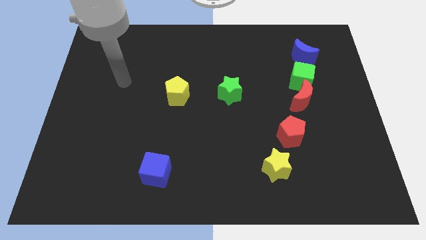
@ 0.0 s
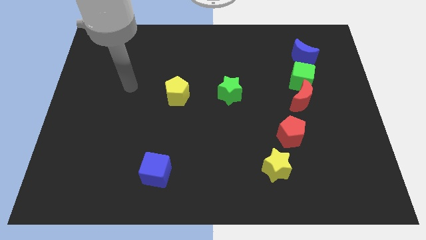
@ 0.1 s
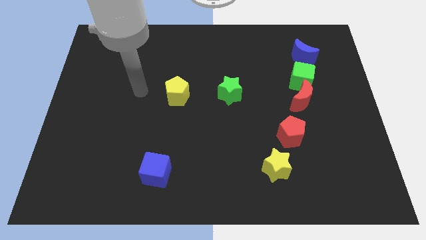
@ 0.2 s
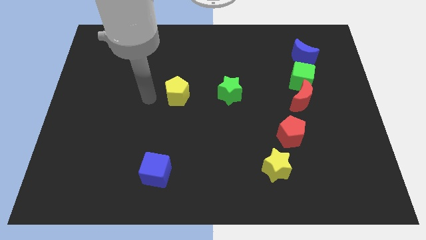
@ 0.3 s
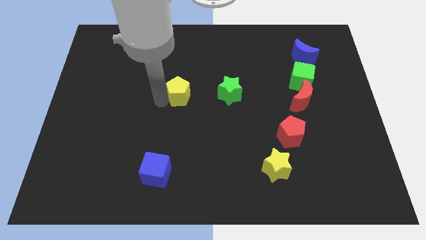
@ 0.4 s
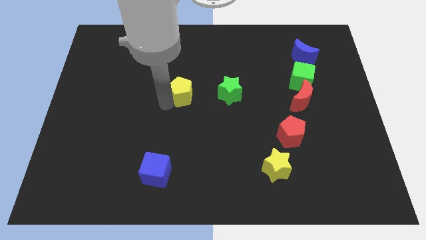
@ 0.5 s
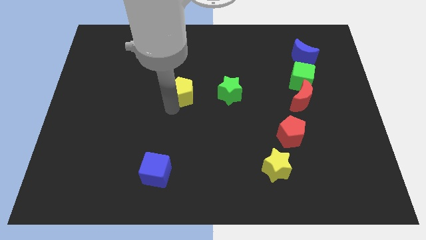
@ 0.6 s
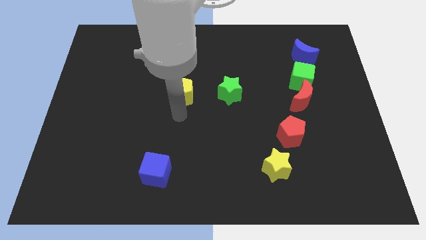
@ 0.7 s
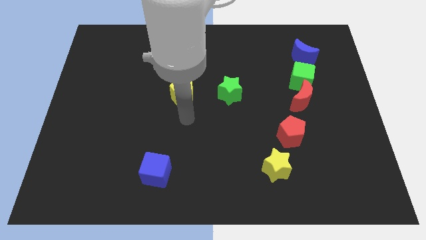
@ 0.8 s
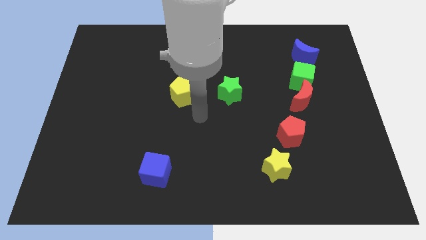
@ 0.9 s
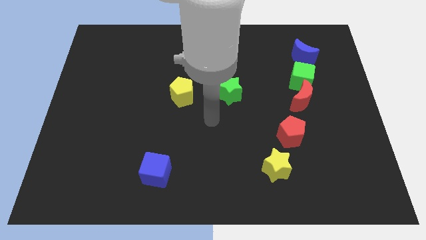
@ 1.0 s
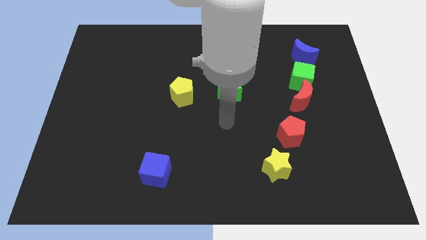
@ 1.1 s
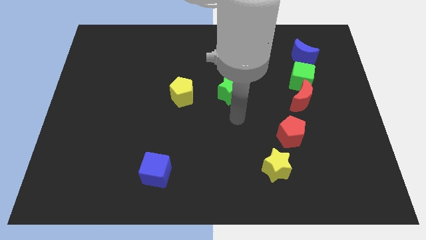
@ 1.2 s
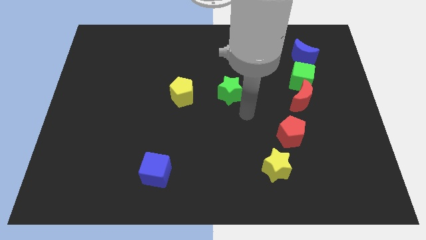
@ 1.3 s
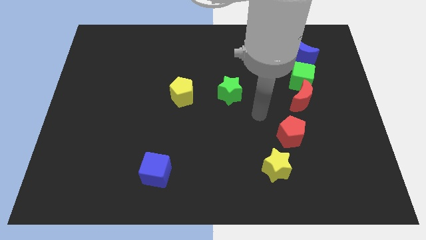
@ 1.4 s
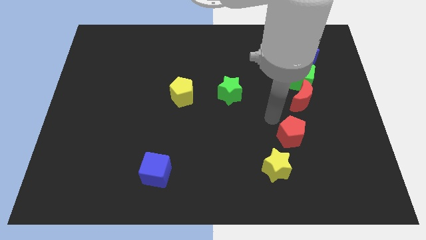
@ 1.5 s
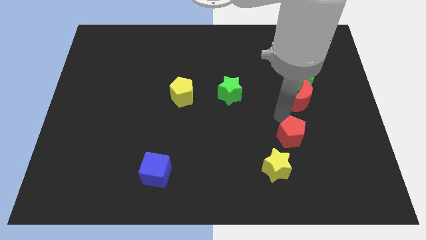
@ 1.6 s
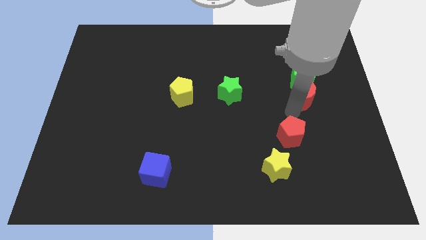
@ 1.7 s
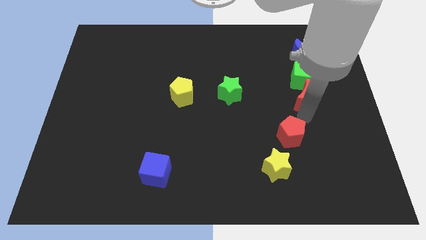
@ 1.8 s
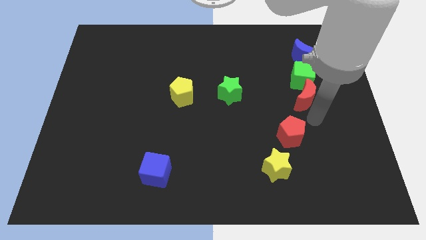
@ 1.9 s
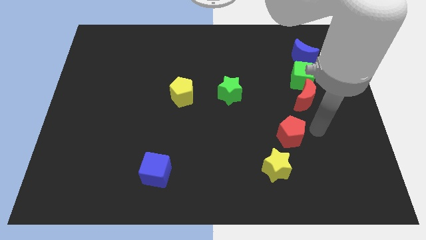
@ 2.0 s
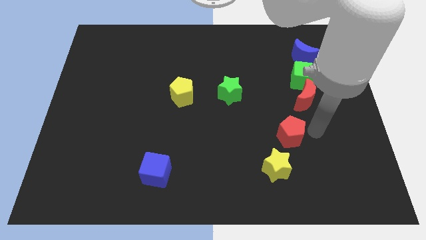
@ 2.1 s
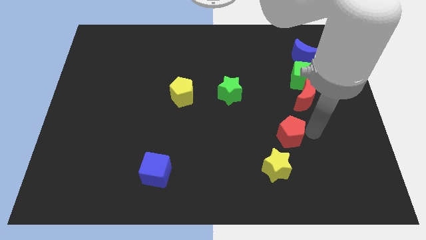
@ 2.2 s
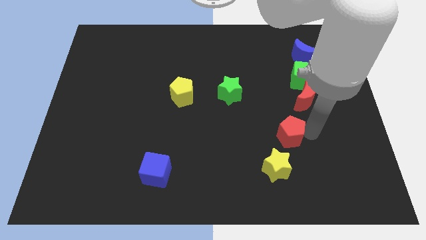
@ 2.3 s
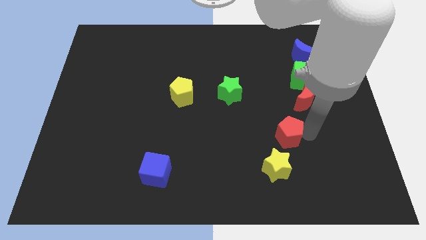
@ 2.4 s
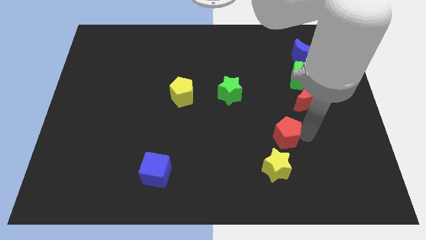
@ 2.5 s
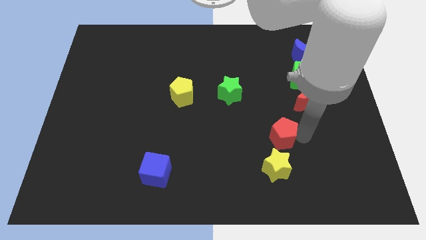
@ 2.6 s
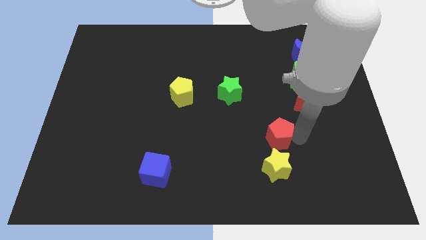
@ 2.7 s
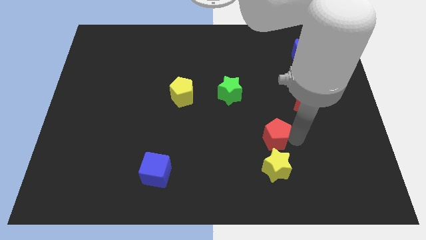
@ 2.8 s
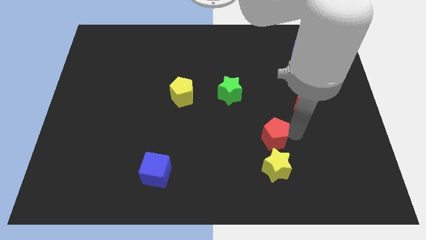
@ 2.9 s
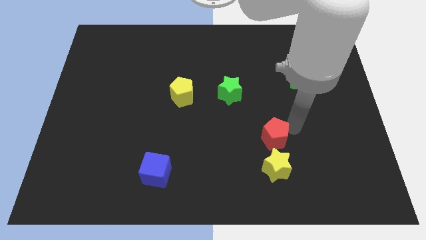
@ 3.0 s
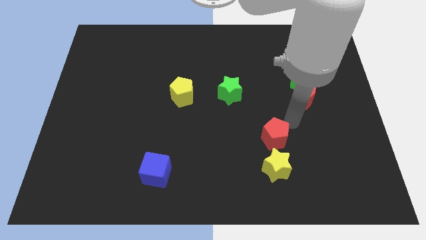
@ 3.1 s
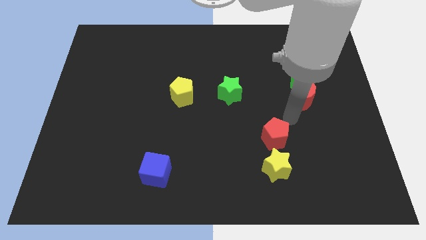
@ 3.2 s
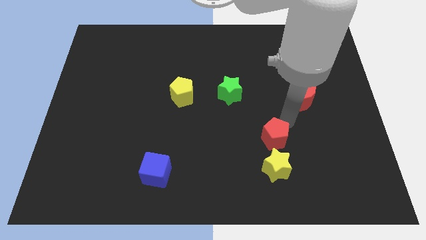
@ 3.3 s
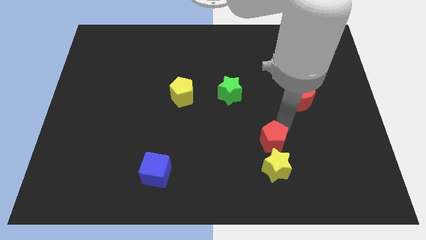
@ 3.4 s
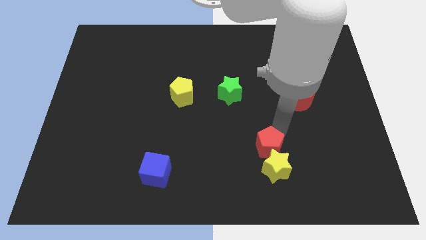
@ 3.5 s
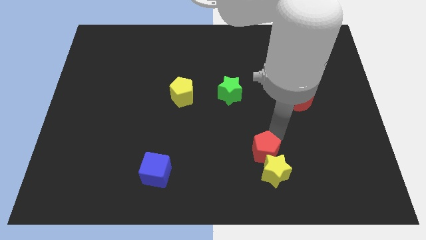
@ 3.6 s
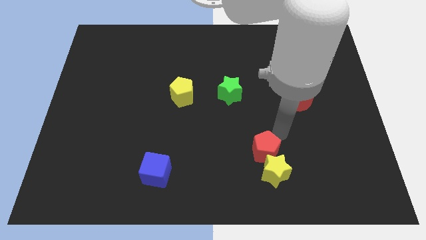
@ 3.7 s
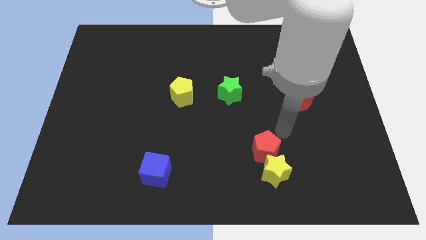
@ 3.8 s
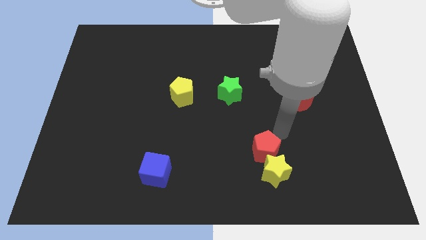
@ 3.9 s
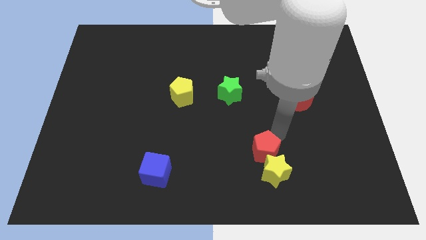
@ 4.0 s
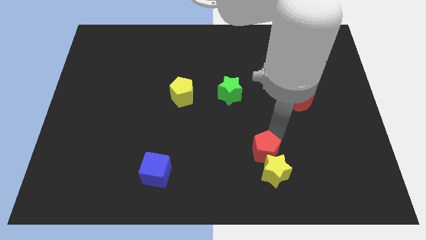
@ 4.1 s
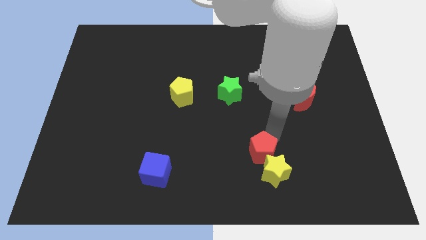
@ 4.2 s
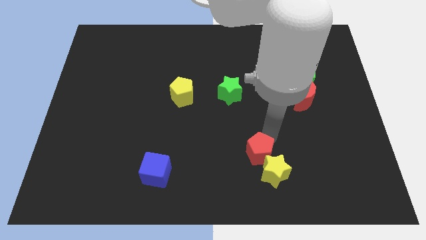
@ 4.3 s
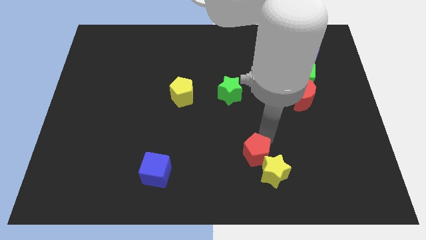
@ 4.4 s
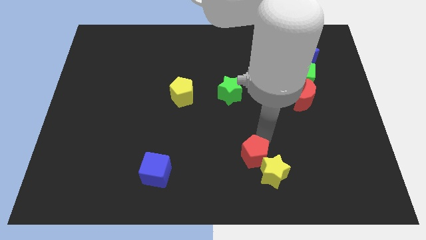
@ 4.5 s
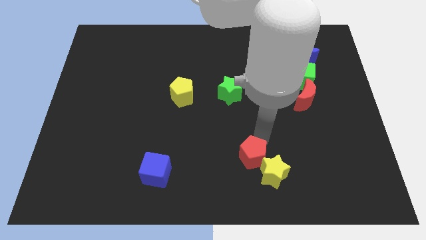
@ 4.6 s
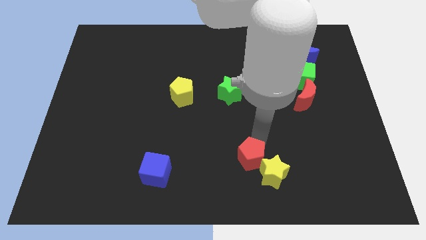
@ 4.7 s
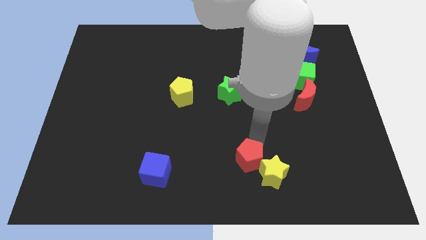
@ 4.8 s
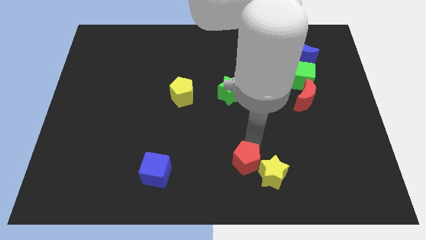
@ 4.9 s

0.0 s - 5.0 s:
slide the red pentagon to the bottom

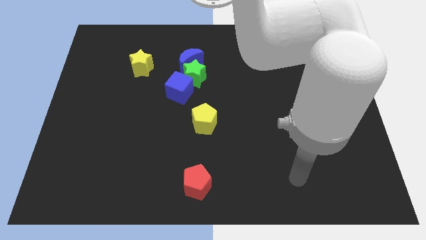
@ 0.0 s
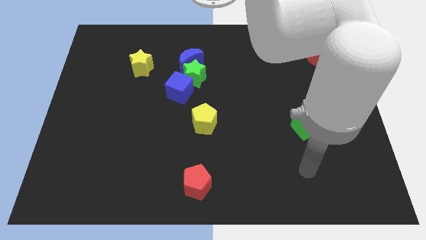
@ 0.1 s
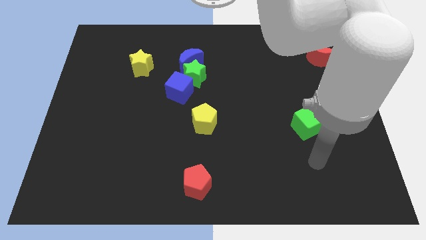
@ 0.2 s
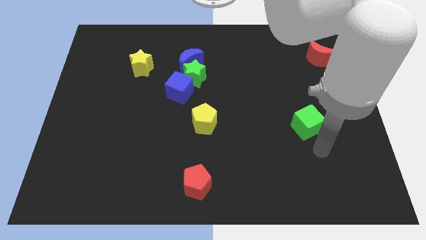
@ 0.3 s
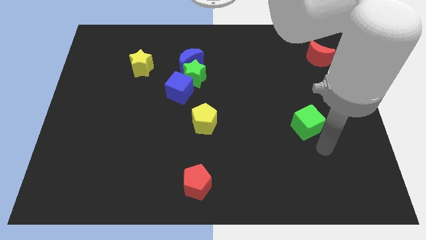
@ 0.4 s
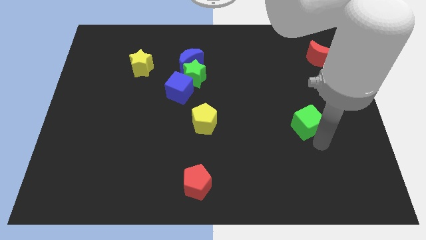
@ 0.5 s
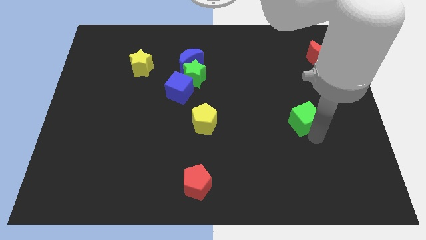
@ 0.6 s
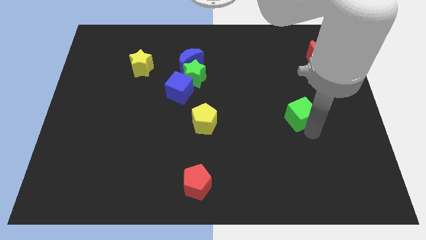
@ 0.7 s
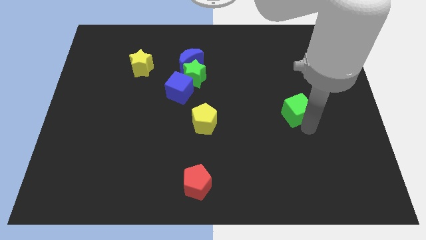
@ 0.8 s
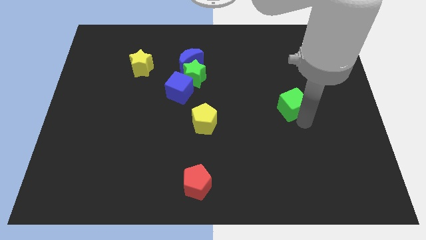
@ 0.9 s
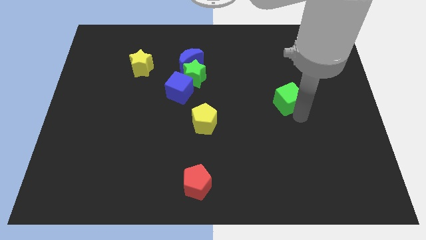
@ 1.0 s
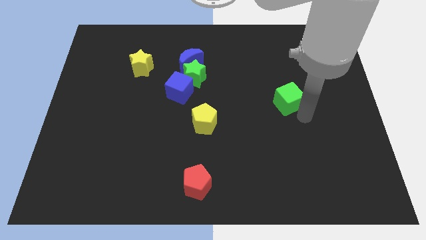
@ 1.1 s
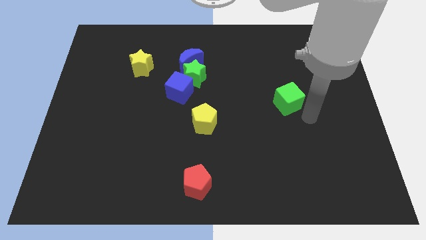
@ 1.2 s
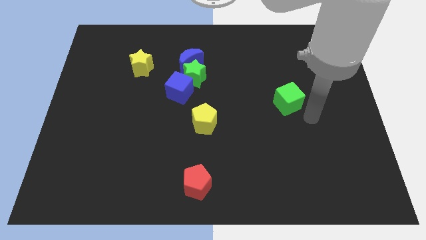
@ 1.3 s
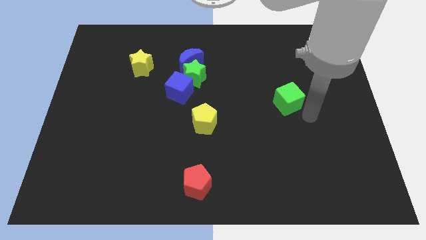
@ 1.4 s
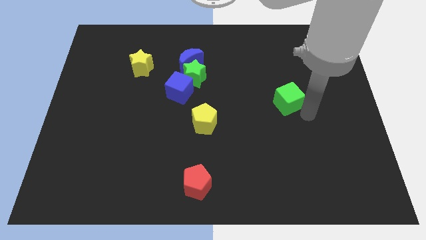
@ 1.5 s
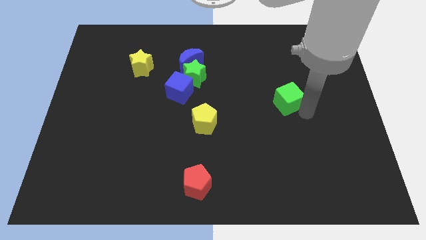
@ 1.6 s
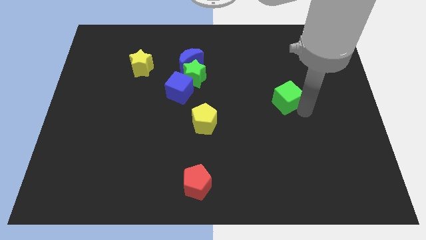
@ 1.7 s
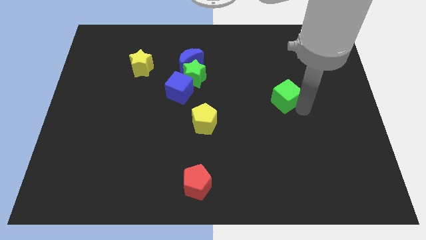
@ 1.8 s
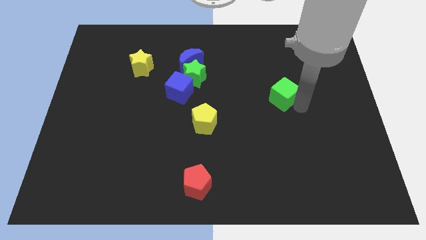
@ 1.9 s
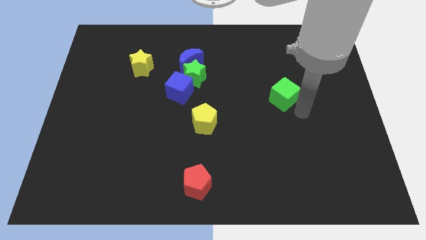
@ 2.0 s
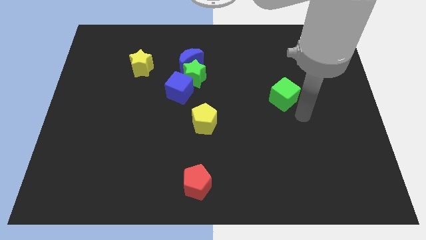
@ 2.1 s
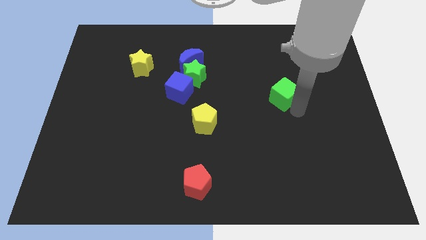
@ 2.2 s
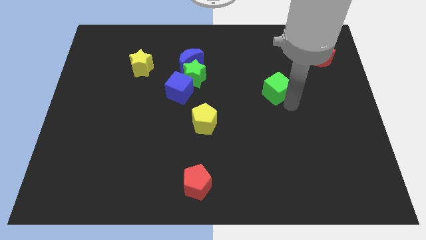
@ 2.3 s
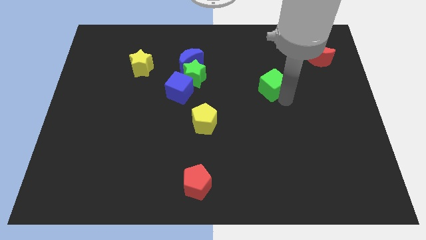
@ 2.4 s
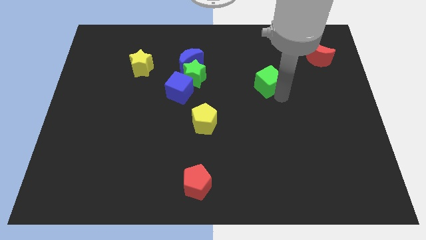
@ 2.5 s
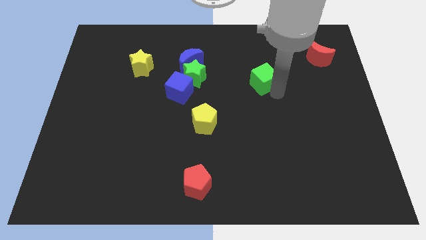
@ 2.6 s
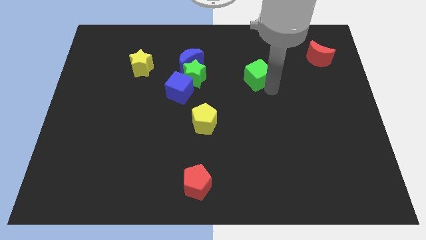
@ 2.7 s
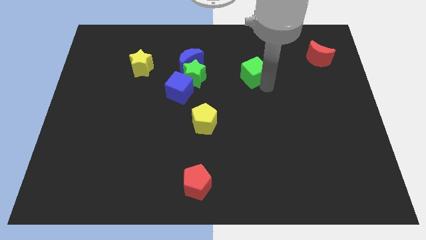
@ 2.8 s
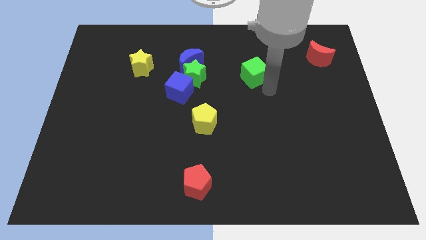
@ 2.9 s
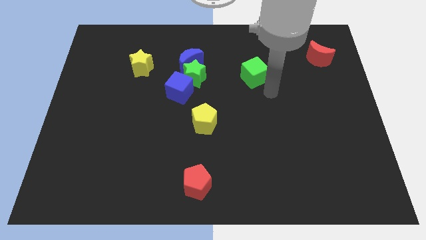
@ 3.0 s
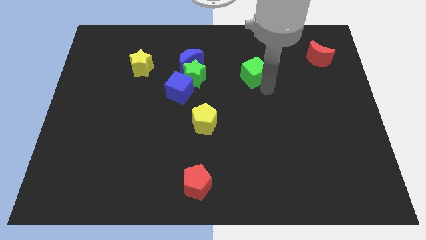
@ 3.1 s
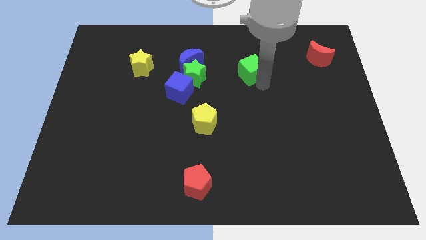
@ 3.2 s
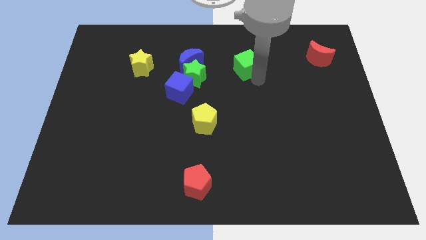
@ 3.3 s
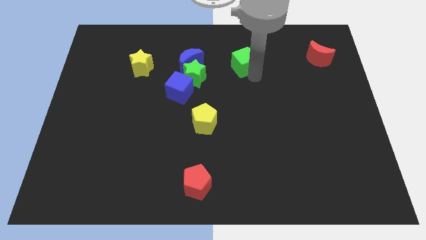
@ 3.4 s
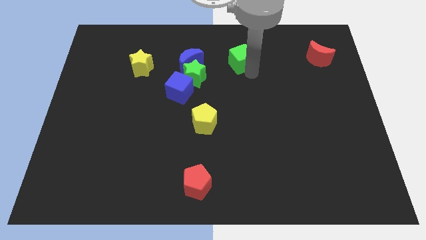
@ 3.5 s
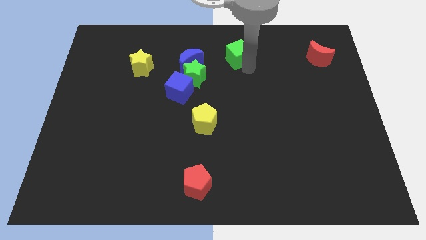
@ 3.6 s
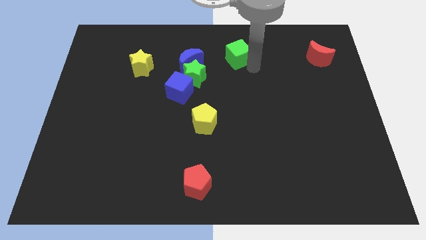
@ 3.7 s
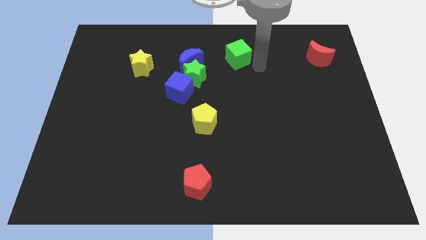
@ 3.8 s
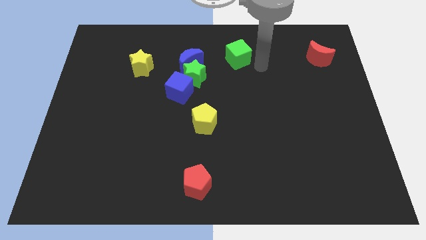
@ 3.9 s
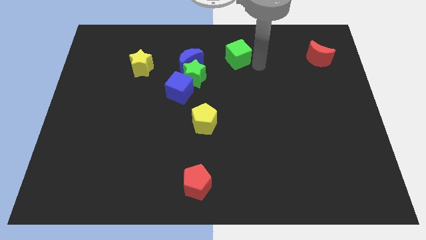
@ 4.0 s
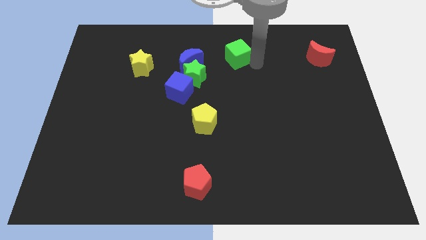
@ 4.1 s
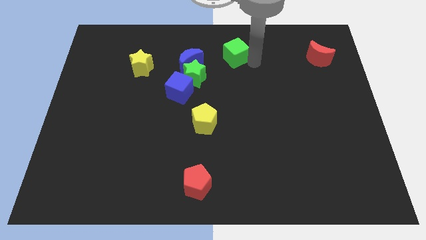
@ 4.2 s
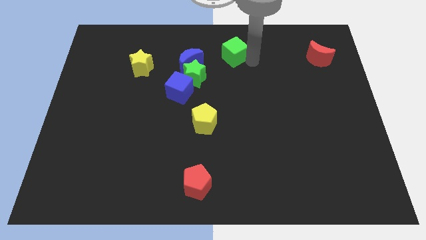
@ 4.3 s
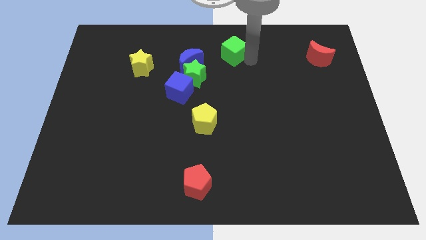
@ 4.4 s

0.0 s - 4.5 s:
push the green cube to the top side
